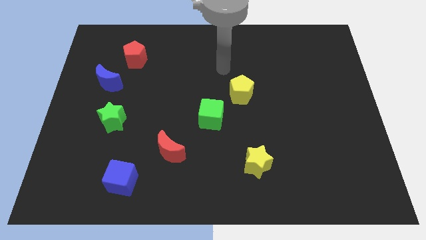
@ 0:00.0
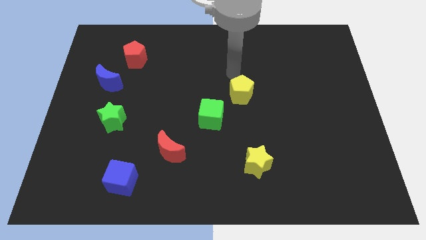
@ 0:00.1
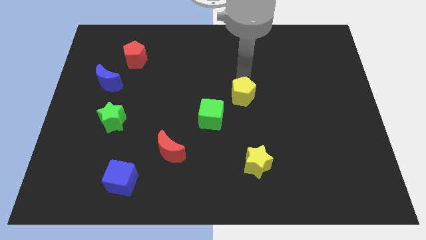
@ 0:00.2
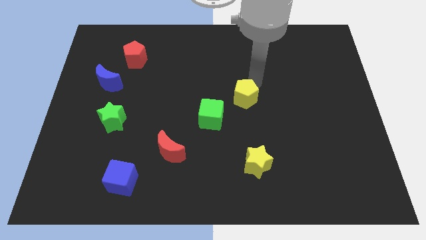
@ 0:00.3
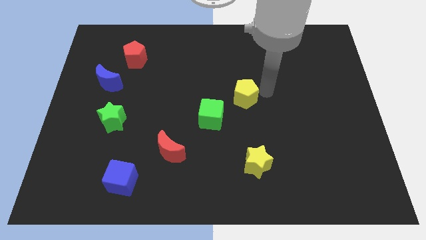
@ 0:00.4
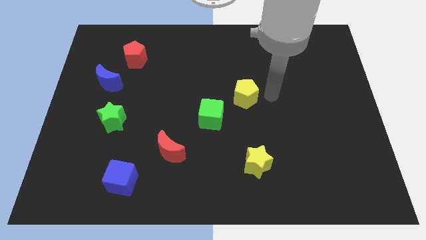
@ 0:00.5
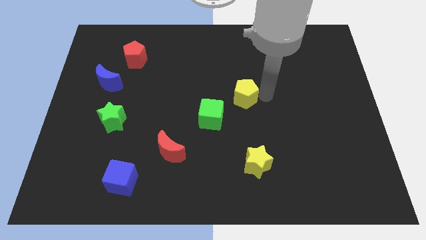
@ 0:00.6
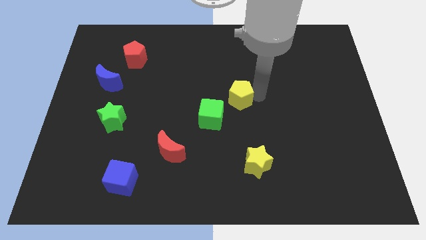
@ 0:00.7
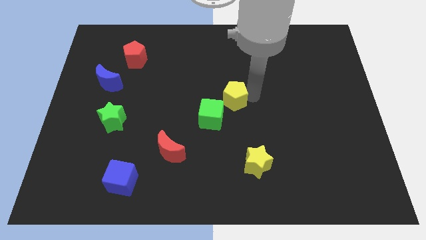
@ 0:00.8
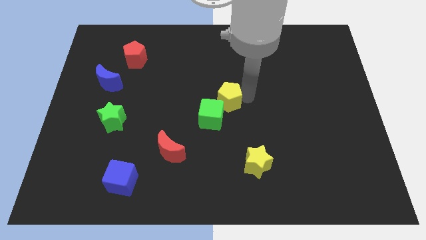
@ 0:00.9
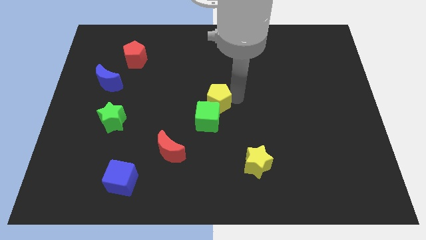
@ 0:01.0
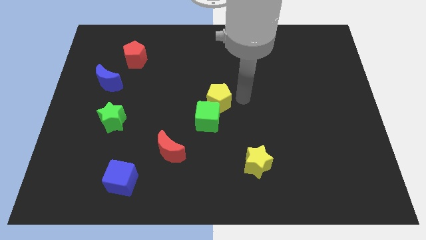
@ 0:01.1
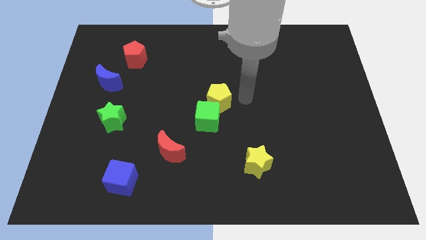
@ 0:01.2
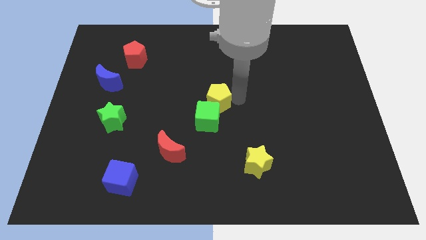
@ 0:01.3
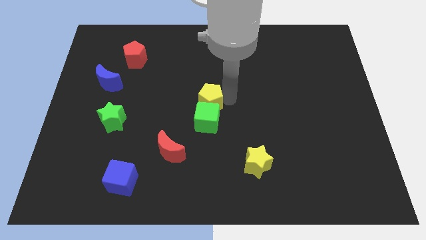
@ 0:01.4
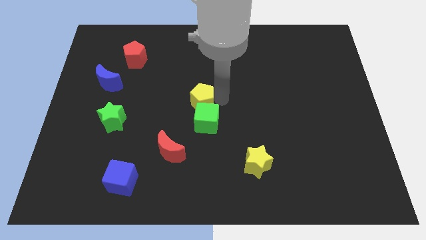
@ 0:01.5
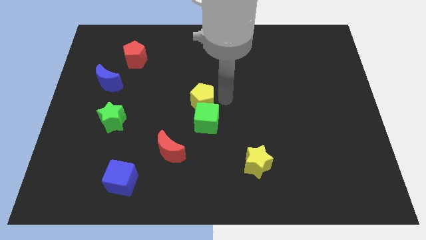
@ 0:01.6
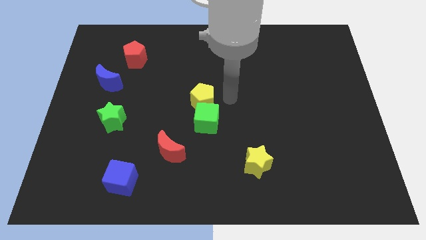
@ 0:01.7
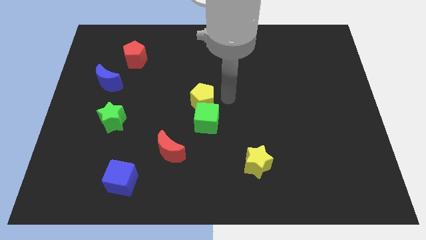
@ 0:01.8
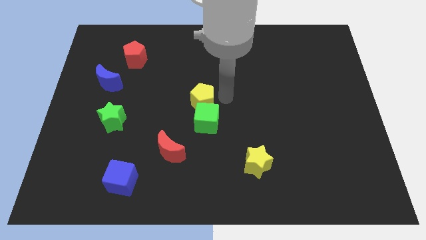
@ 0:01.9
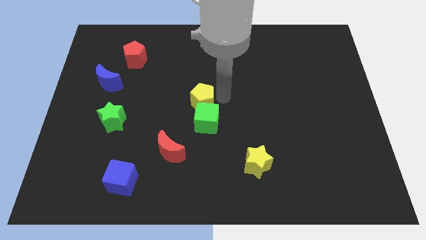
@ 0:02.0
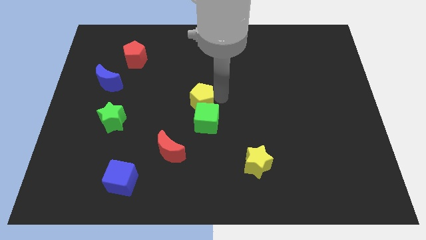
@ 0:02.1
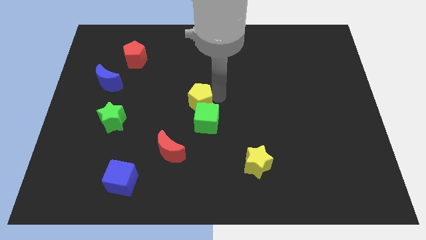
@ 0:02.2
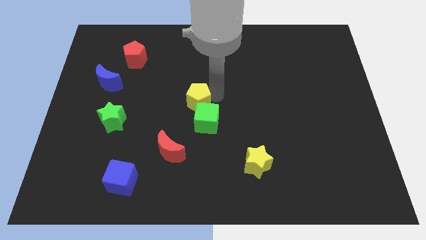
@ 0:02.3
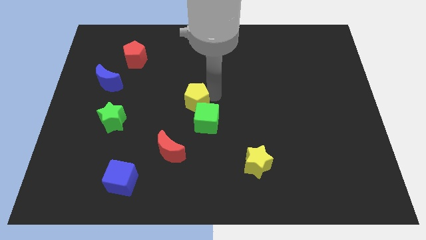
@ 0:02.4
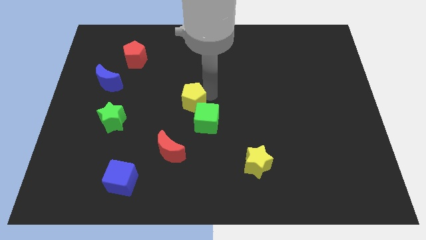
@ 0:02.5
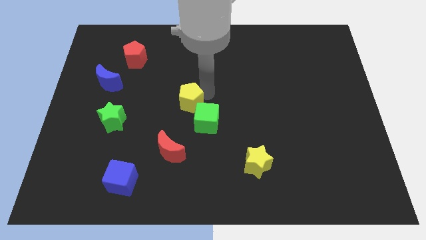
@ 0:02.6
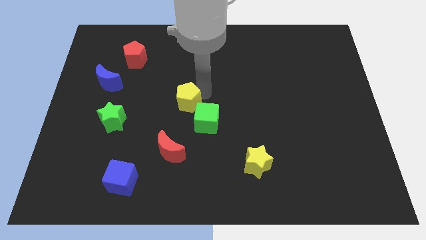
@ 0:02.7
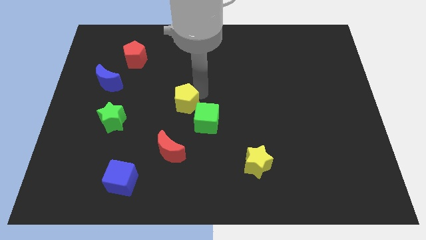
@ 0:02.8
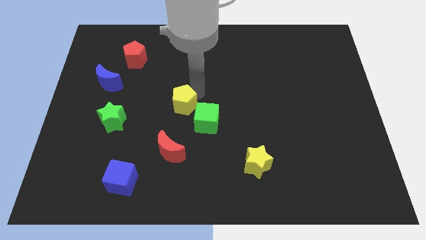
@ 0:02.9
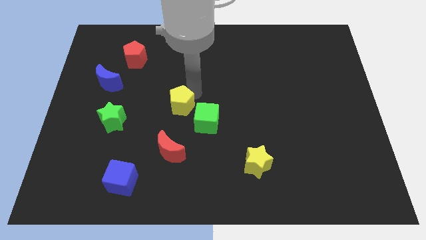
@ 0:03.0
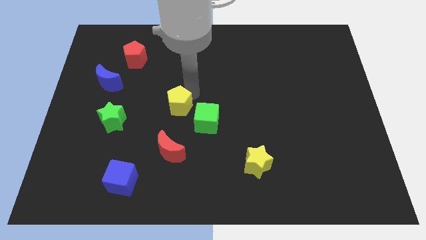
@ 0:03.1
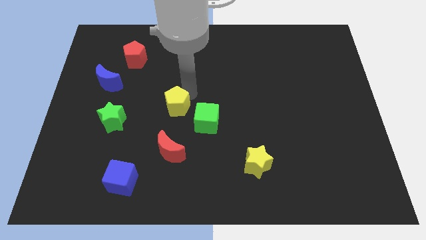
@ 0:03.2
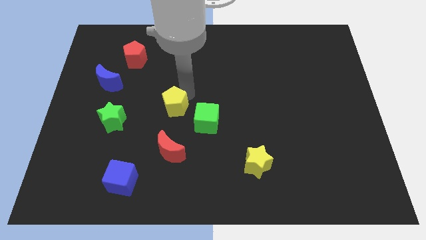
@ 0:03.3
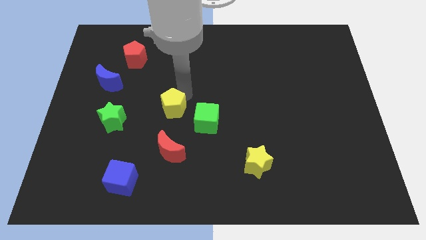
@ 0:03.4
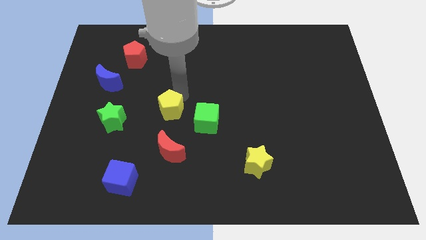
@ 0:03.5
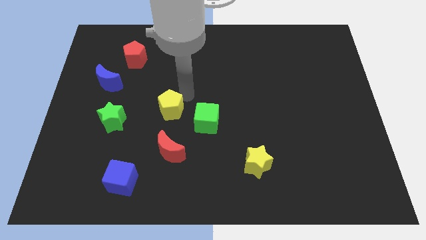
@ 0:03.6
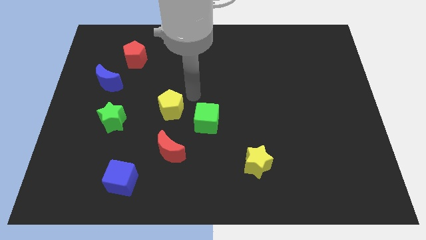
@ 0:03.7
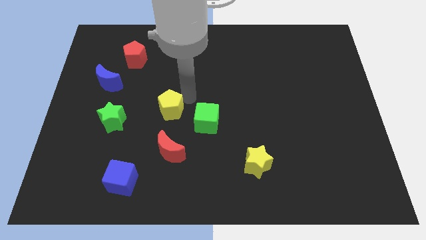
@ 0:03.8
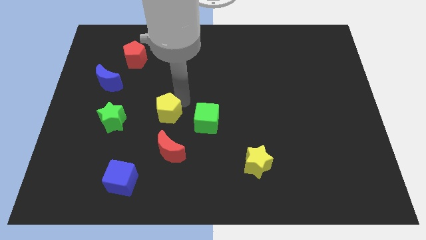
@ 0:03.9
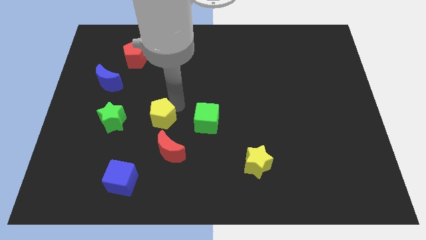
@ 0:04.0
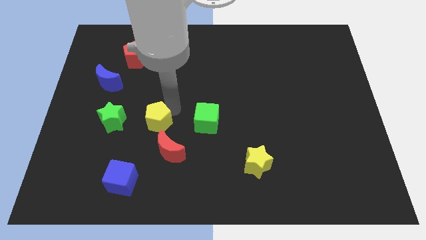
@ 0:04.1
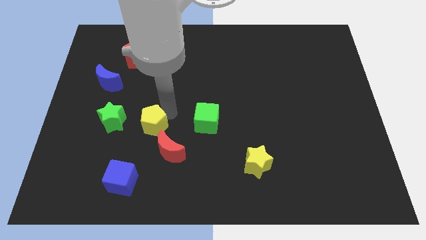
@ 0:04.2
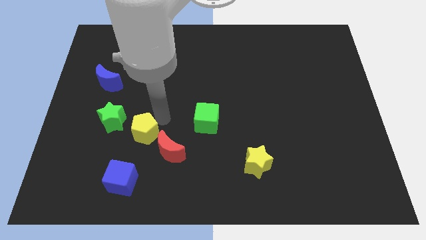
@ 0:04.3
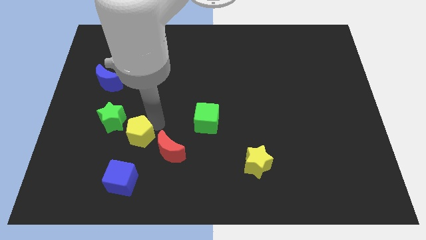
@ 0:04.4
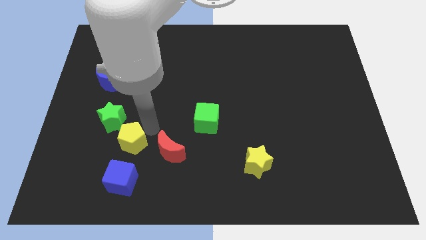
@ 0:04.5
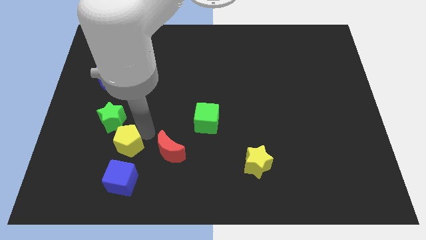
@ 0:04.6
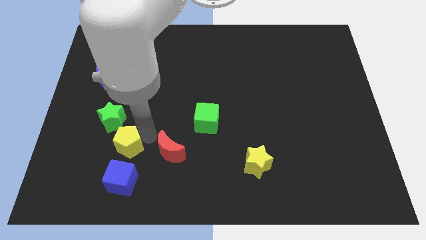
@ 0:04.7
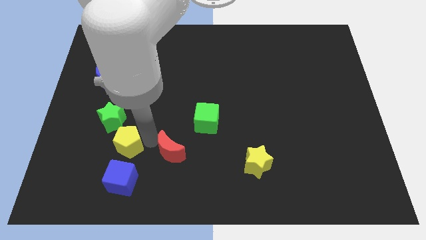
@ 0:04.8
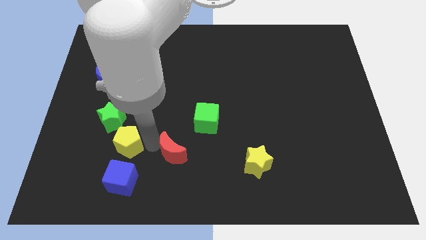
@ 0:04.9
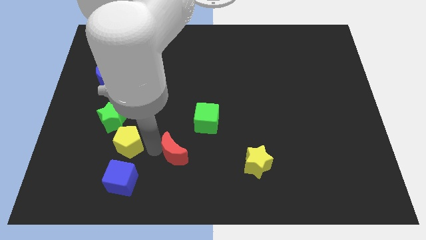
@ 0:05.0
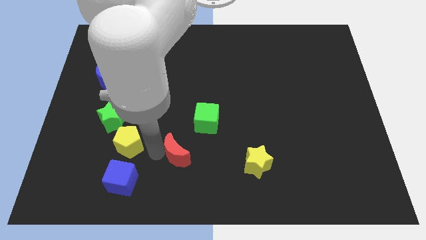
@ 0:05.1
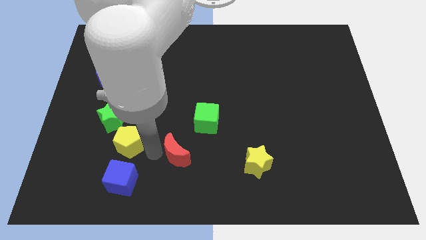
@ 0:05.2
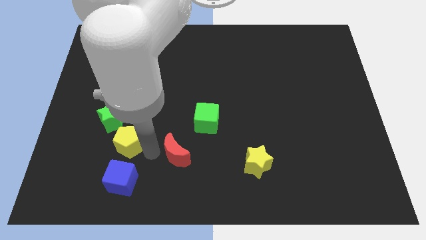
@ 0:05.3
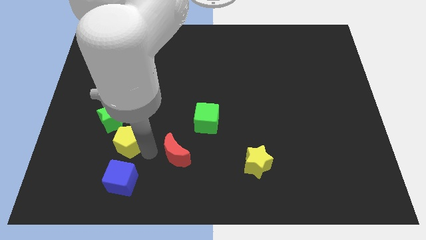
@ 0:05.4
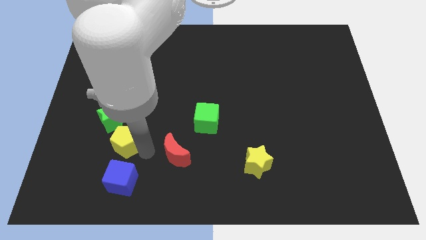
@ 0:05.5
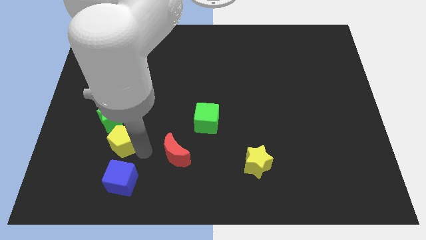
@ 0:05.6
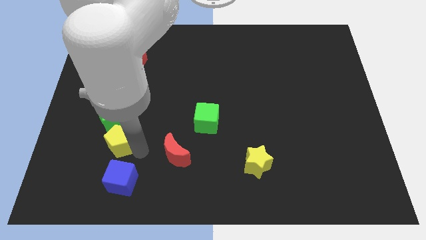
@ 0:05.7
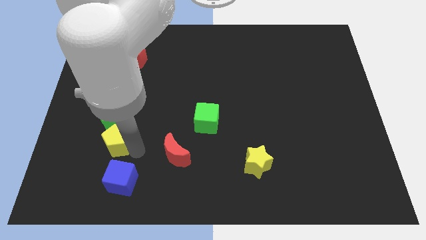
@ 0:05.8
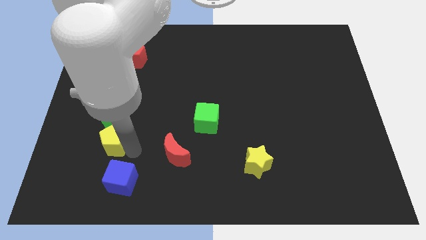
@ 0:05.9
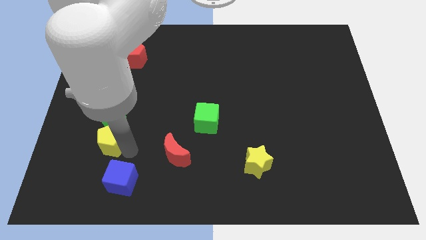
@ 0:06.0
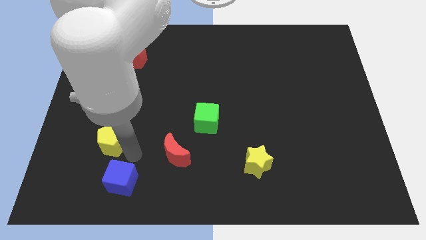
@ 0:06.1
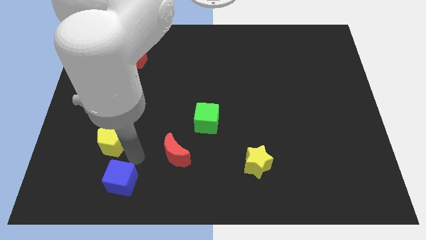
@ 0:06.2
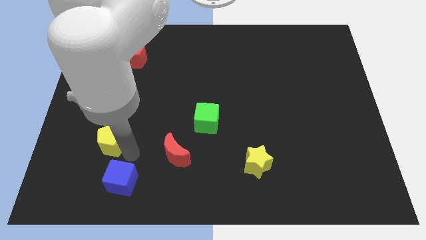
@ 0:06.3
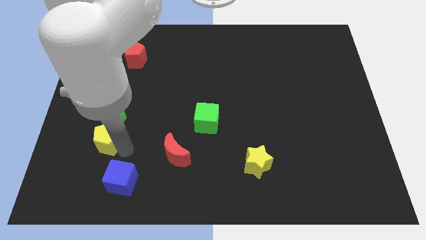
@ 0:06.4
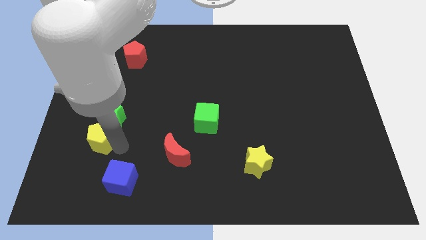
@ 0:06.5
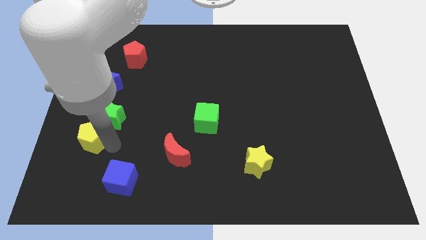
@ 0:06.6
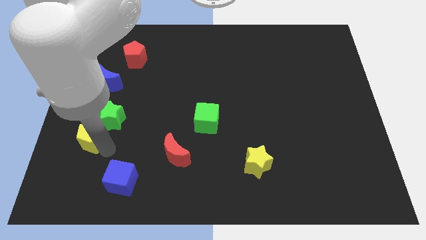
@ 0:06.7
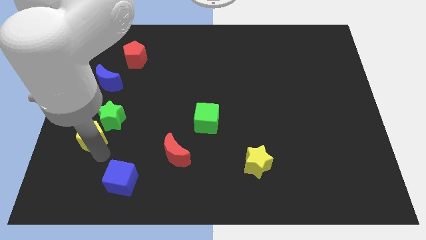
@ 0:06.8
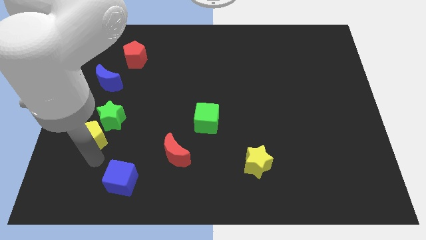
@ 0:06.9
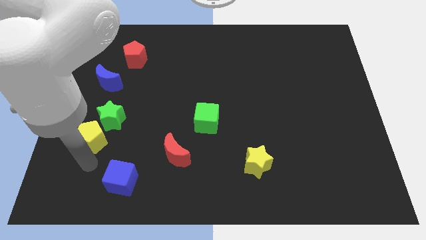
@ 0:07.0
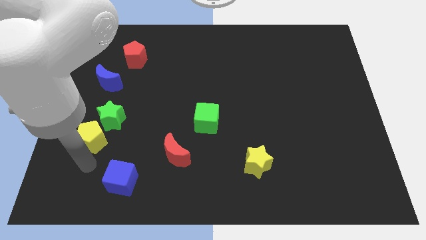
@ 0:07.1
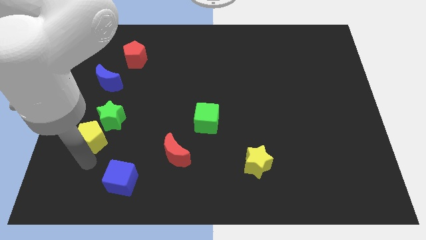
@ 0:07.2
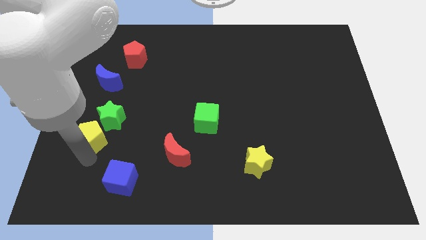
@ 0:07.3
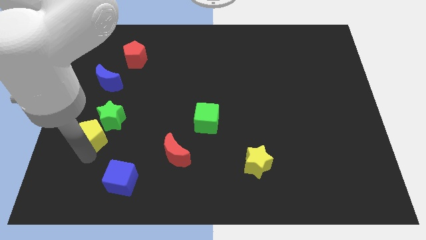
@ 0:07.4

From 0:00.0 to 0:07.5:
move the yellow pentagon to the bottom side of the blue moon

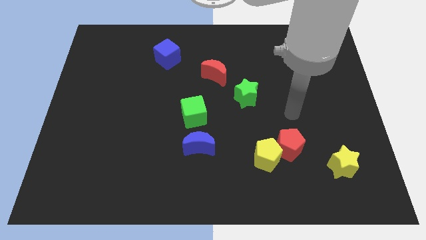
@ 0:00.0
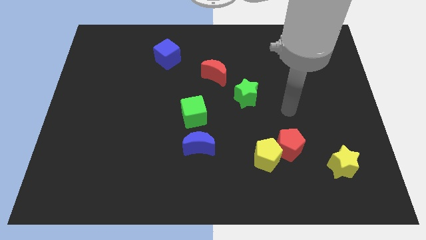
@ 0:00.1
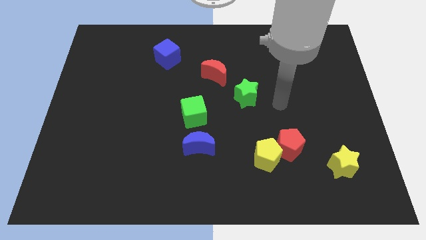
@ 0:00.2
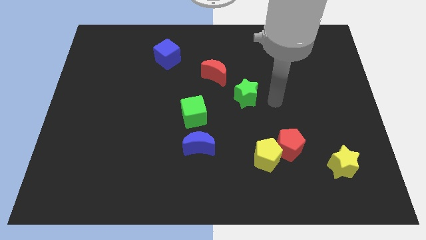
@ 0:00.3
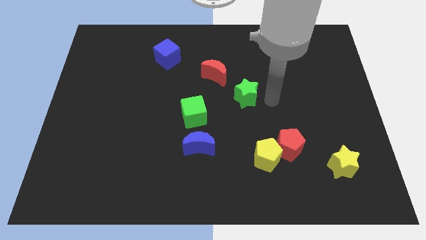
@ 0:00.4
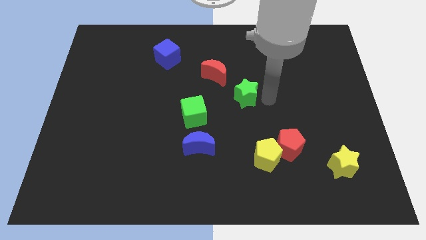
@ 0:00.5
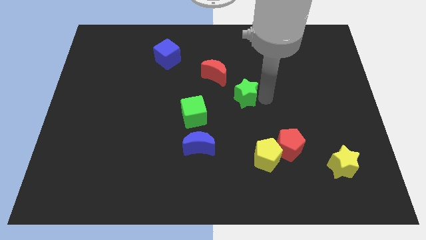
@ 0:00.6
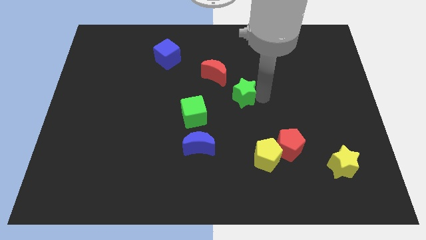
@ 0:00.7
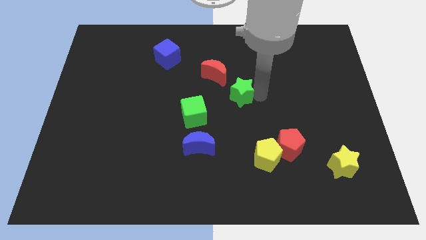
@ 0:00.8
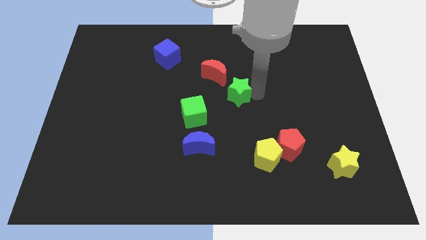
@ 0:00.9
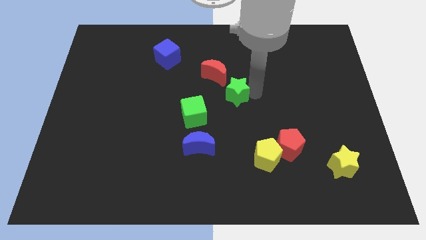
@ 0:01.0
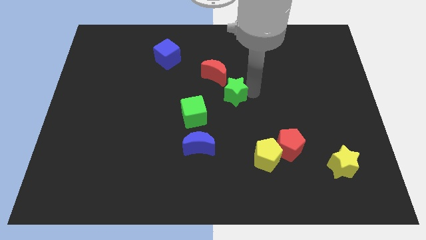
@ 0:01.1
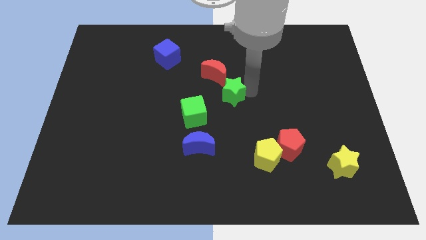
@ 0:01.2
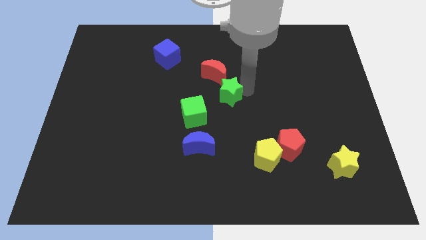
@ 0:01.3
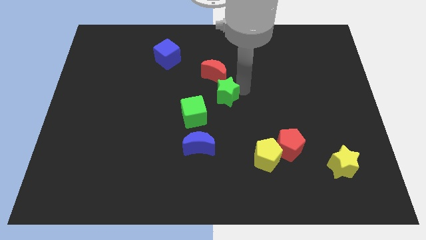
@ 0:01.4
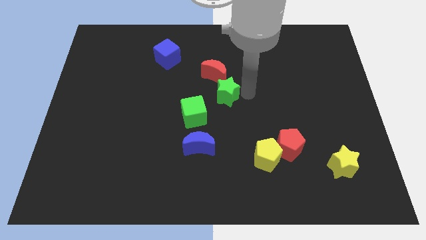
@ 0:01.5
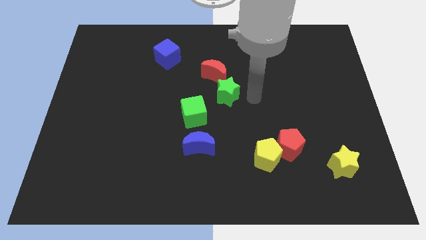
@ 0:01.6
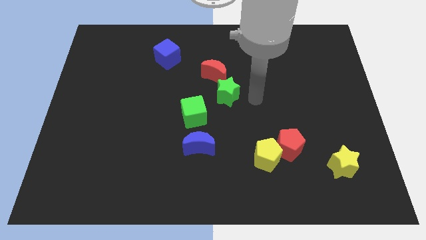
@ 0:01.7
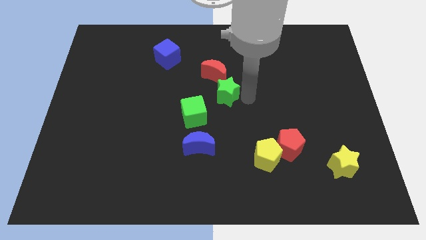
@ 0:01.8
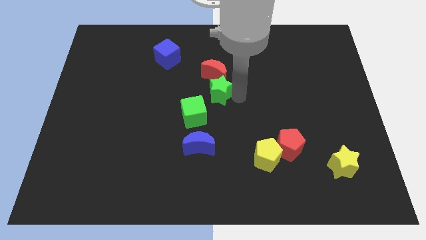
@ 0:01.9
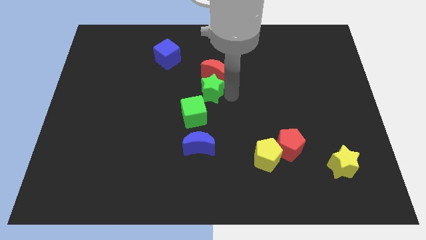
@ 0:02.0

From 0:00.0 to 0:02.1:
move the green star diagonally down and to the left of the red moon
